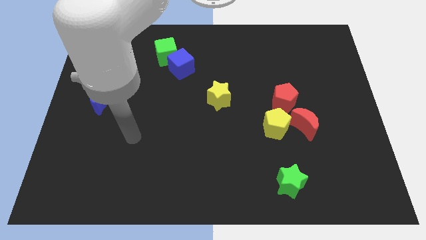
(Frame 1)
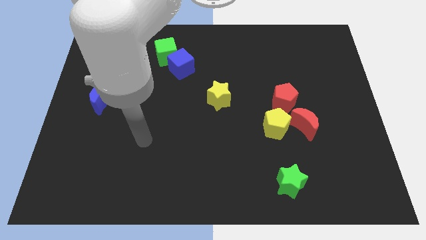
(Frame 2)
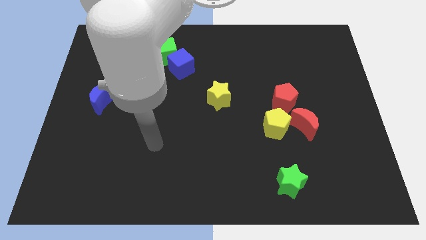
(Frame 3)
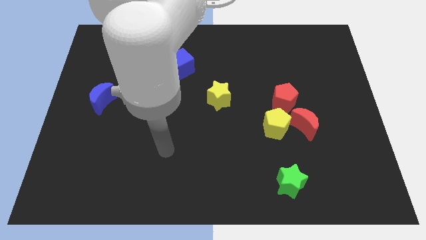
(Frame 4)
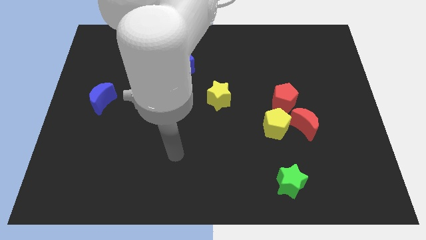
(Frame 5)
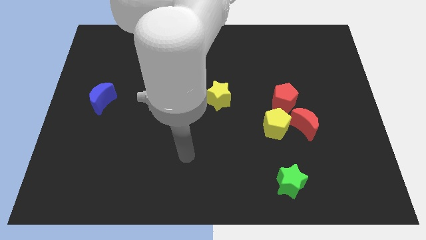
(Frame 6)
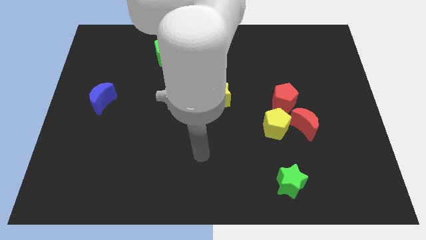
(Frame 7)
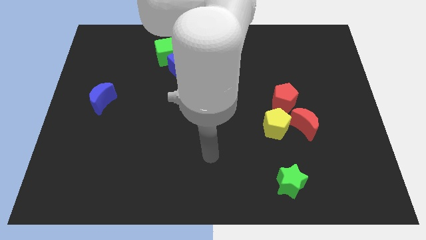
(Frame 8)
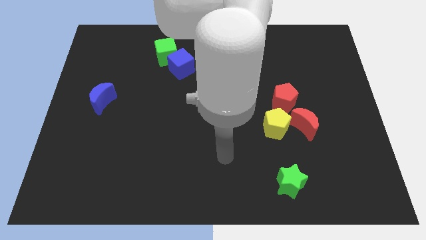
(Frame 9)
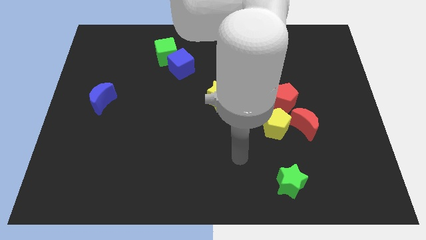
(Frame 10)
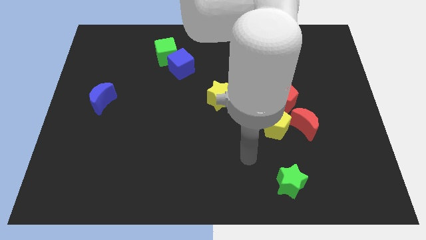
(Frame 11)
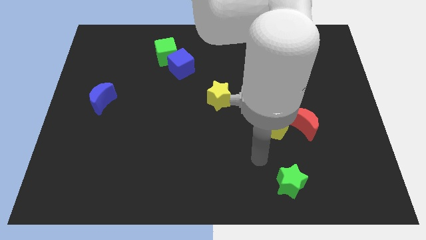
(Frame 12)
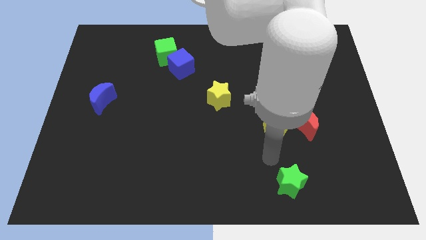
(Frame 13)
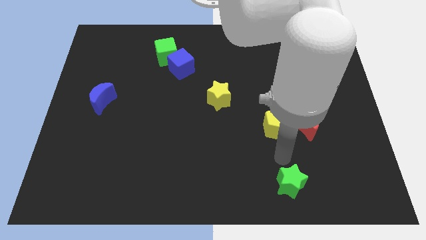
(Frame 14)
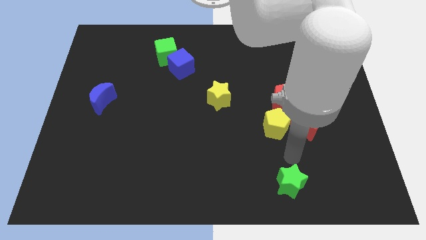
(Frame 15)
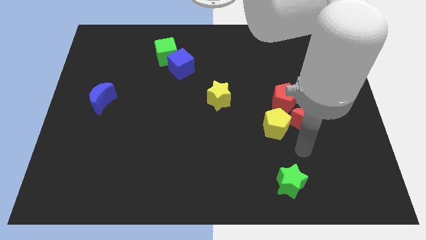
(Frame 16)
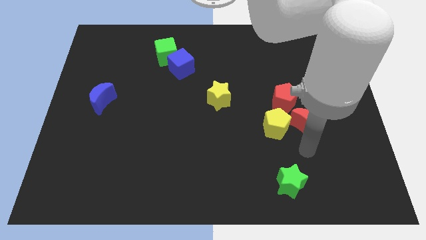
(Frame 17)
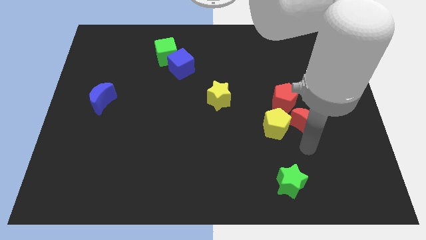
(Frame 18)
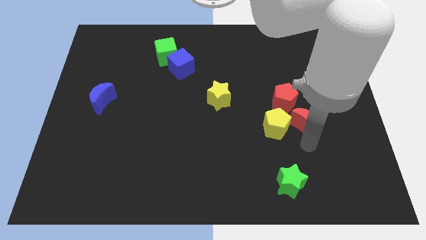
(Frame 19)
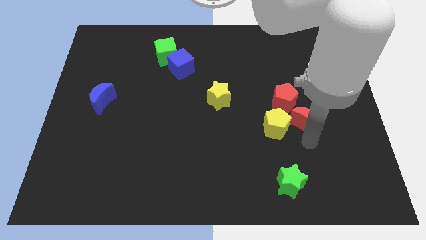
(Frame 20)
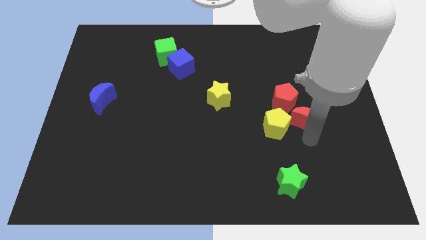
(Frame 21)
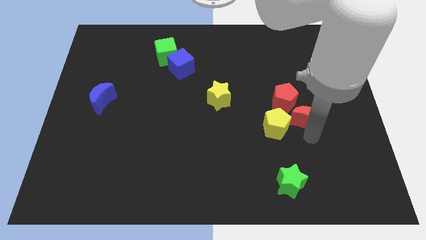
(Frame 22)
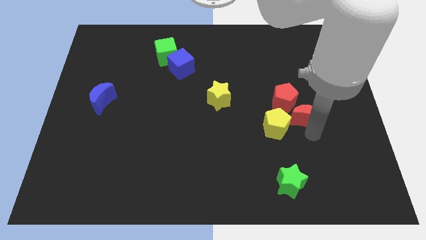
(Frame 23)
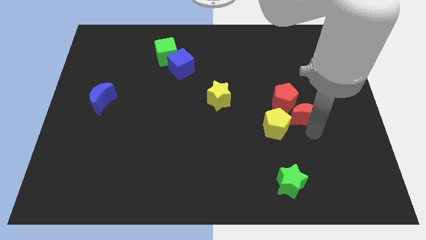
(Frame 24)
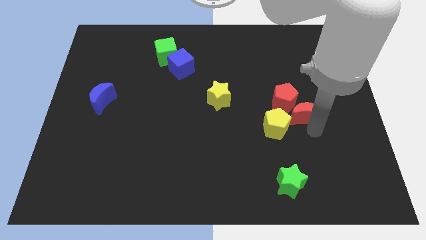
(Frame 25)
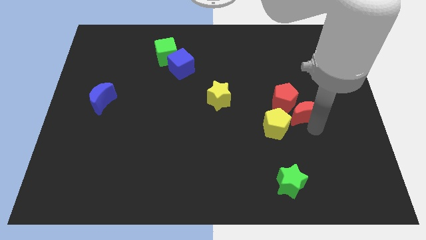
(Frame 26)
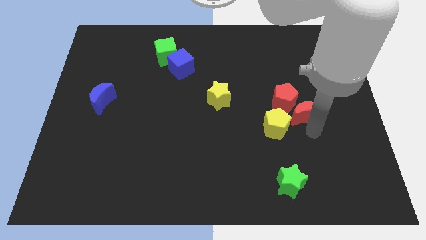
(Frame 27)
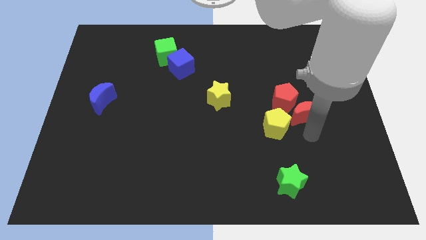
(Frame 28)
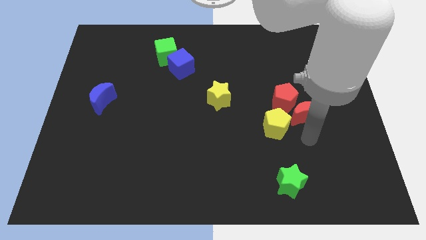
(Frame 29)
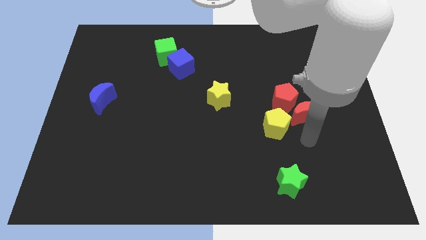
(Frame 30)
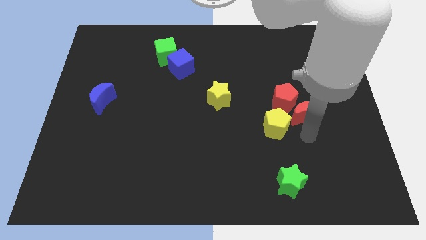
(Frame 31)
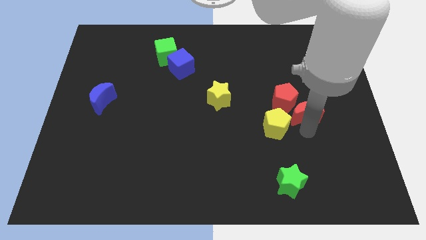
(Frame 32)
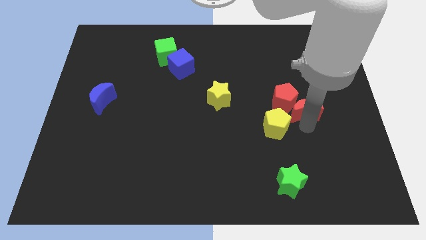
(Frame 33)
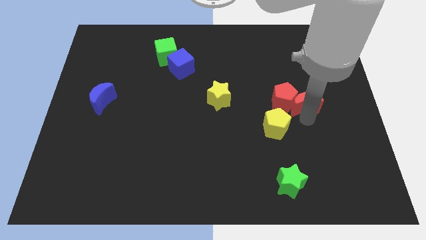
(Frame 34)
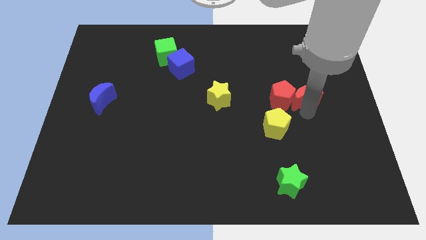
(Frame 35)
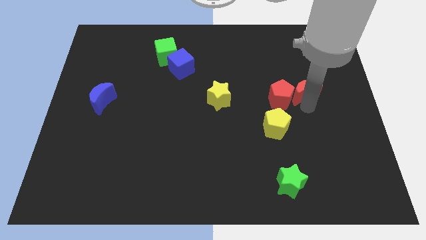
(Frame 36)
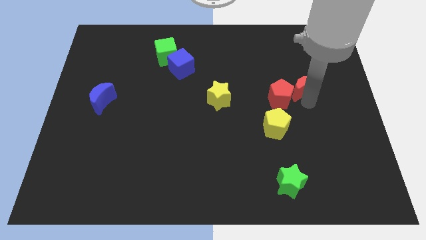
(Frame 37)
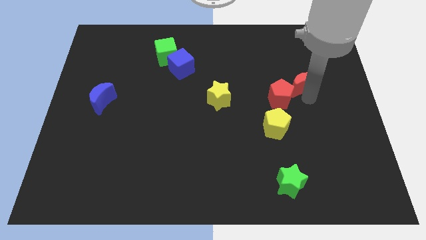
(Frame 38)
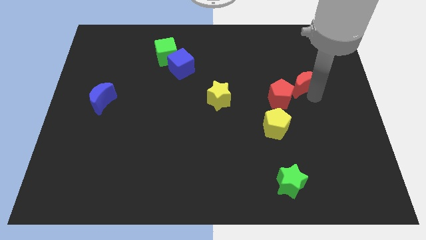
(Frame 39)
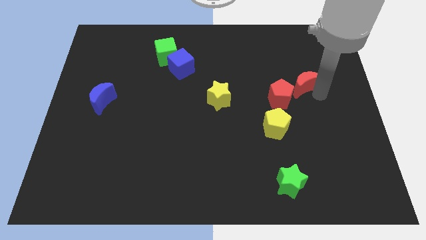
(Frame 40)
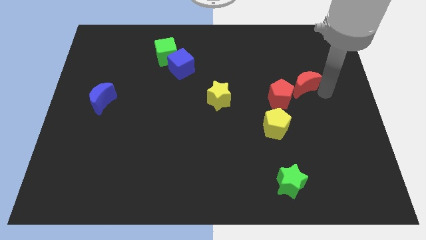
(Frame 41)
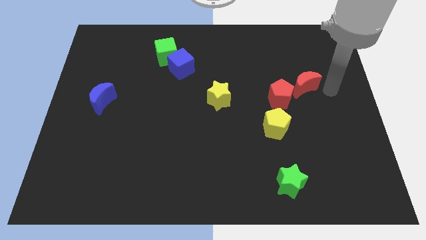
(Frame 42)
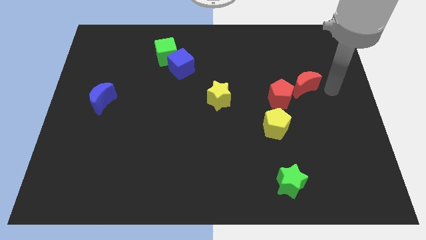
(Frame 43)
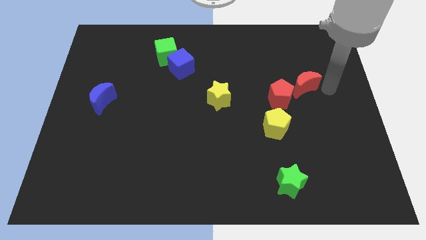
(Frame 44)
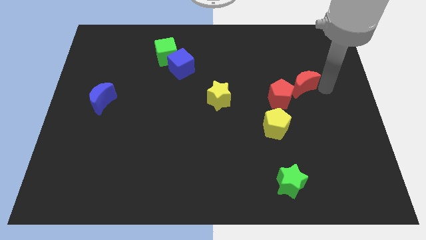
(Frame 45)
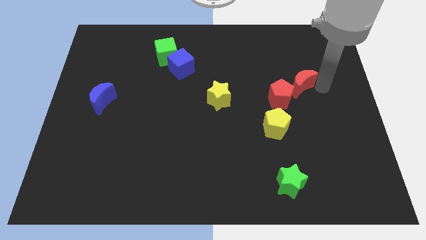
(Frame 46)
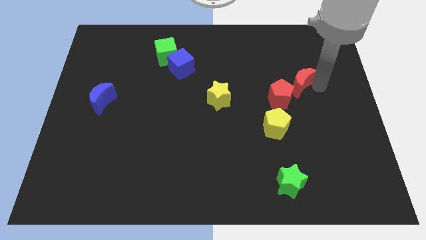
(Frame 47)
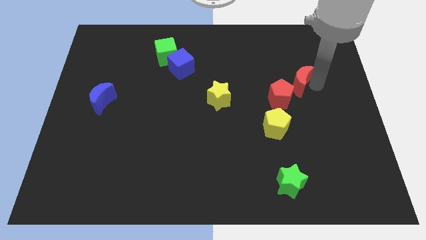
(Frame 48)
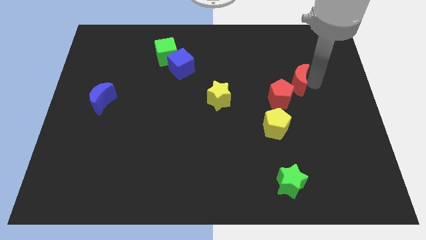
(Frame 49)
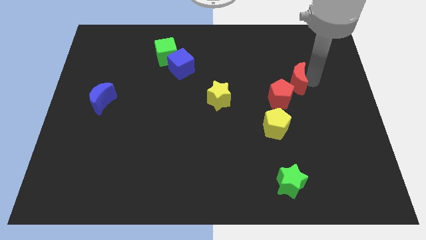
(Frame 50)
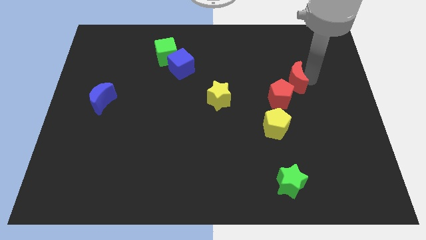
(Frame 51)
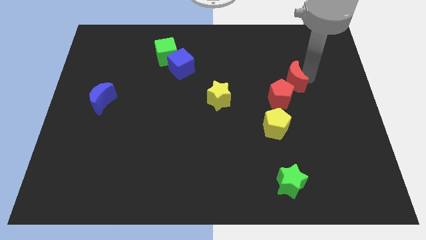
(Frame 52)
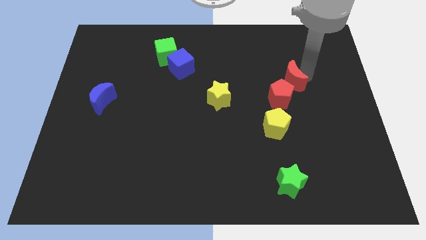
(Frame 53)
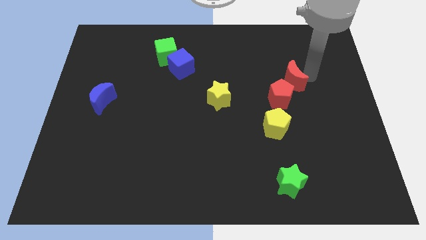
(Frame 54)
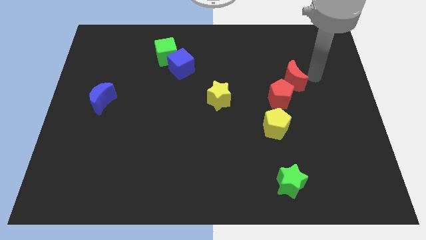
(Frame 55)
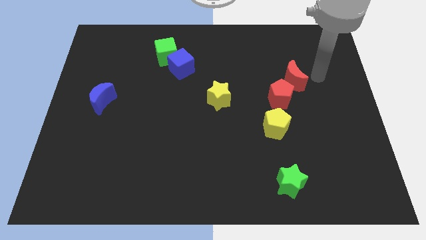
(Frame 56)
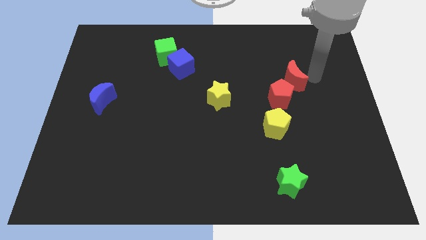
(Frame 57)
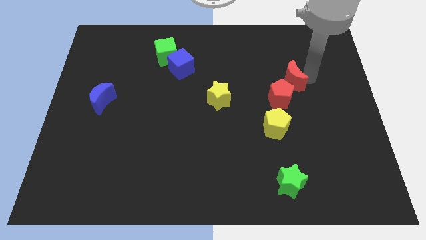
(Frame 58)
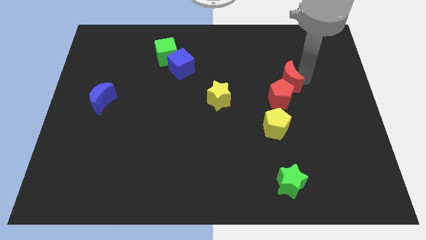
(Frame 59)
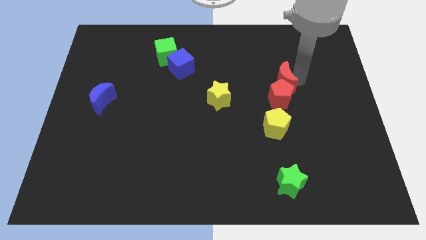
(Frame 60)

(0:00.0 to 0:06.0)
push the red moon to the top left side of the red pentagon

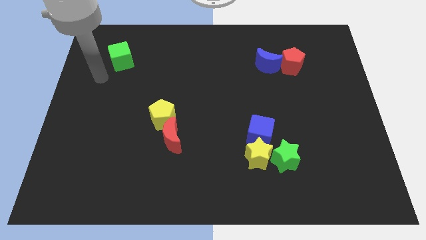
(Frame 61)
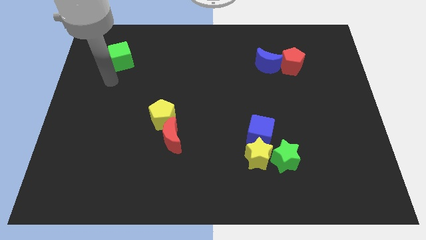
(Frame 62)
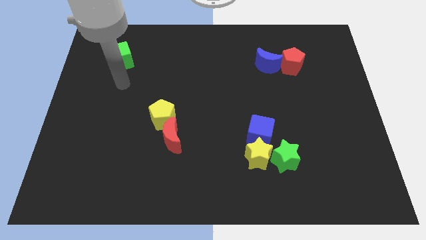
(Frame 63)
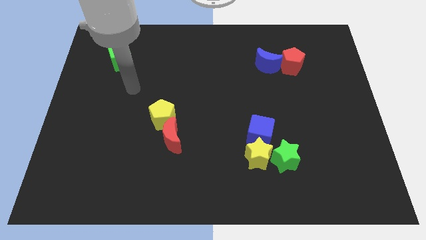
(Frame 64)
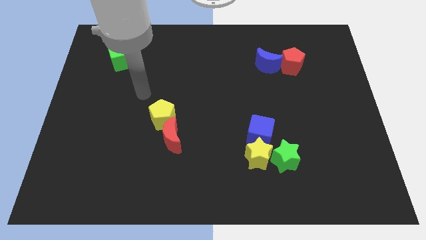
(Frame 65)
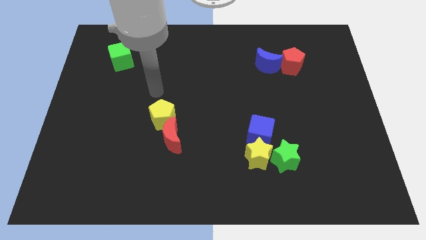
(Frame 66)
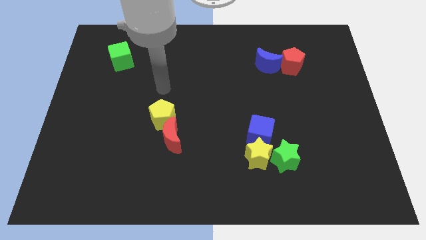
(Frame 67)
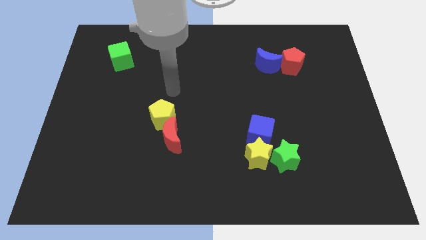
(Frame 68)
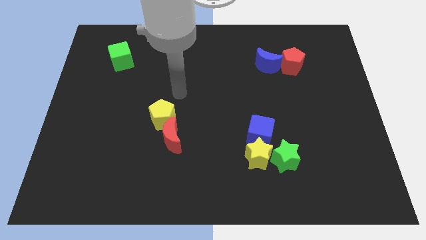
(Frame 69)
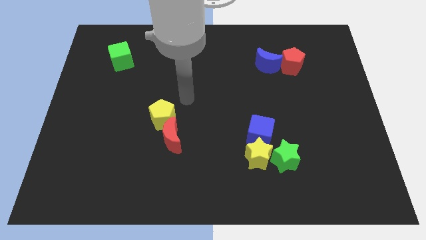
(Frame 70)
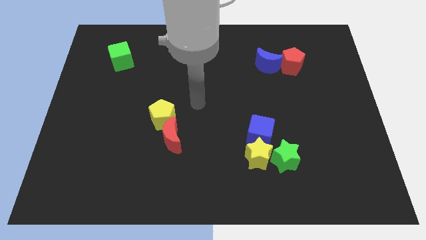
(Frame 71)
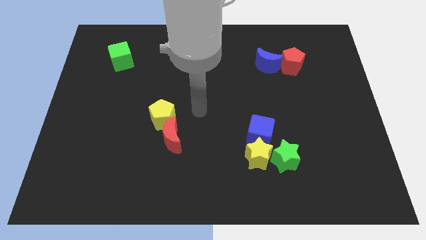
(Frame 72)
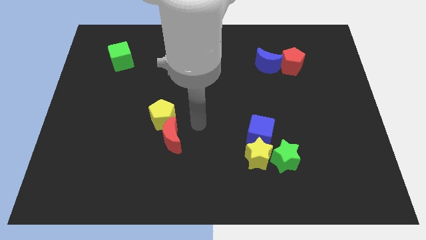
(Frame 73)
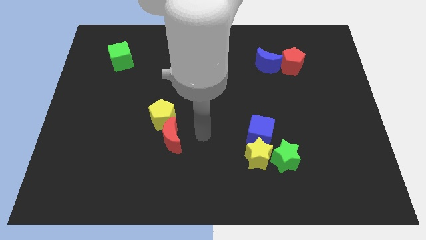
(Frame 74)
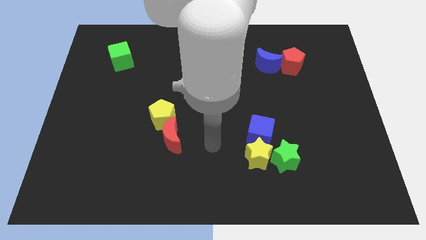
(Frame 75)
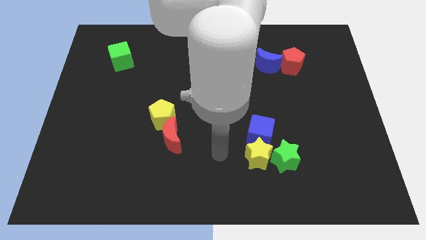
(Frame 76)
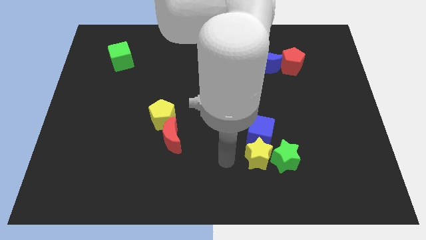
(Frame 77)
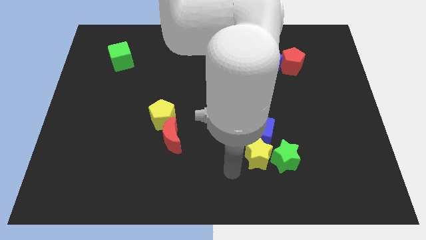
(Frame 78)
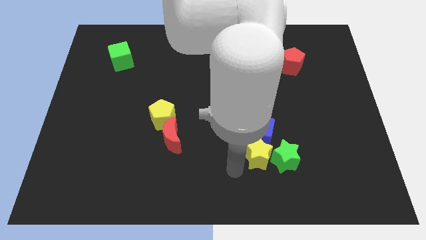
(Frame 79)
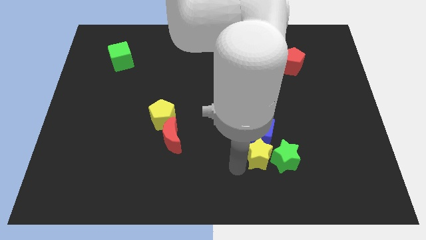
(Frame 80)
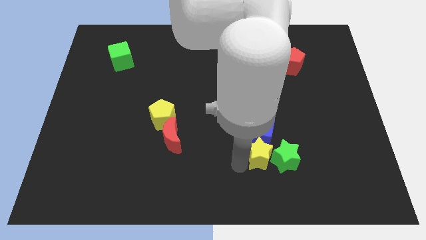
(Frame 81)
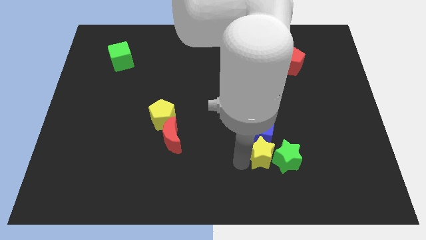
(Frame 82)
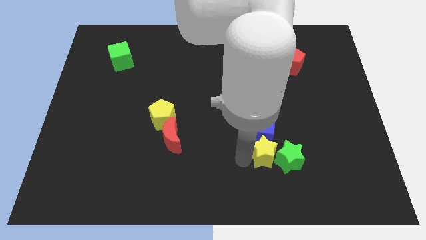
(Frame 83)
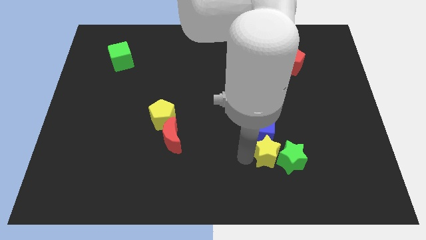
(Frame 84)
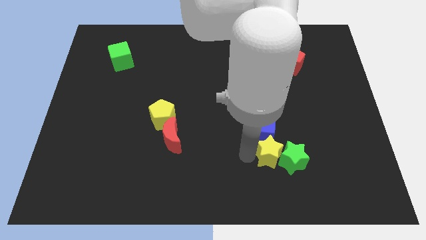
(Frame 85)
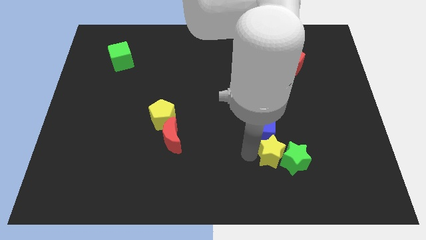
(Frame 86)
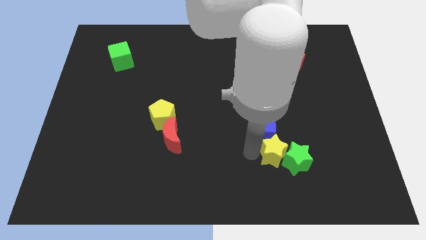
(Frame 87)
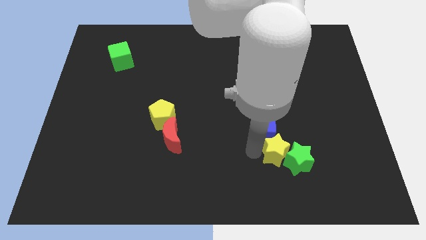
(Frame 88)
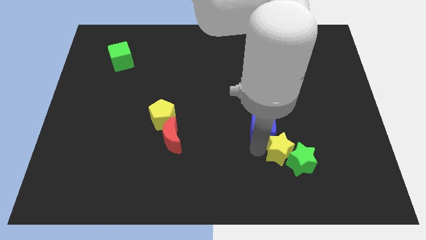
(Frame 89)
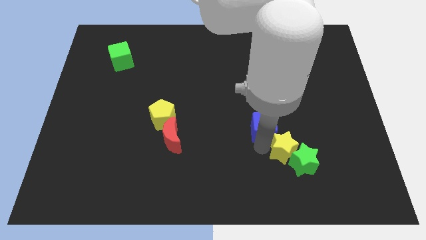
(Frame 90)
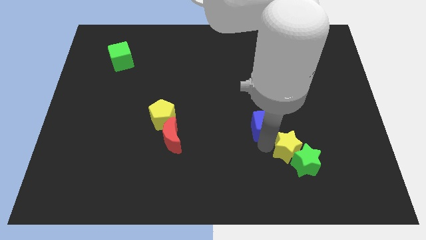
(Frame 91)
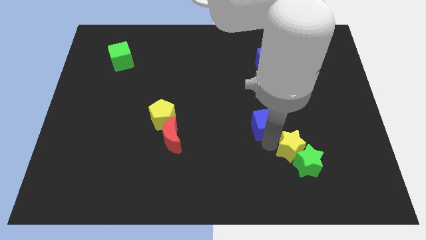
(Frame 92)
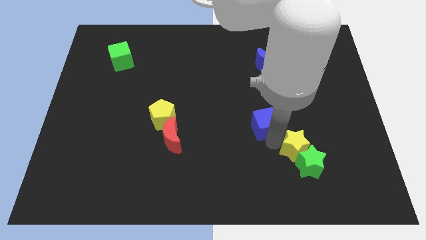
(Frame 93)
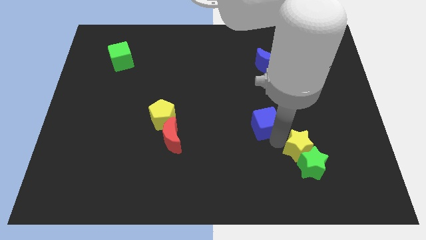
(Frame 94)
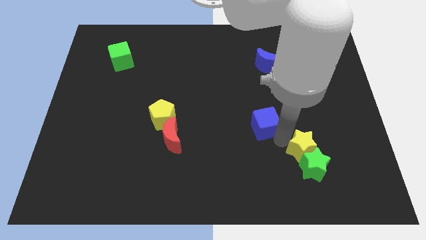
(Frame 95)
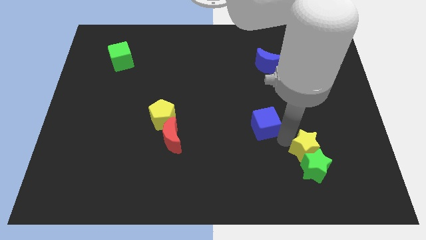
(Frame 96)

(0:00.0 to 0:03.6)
put the yellow star to the top right of the green star
